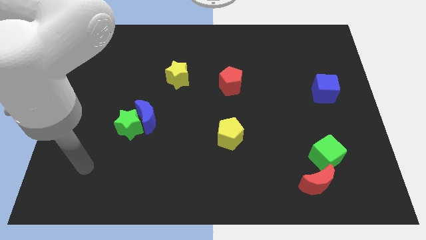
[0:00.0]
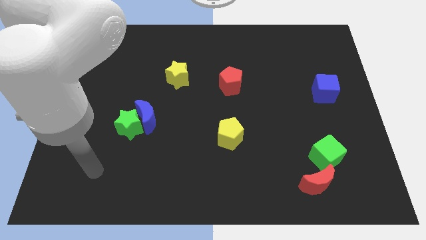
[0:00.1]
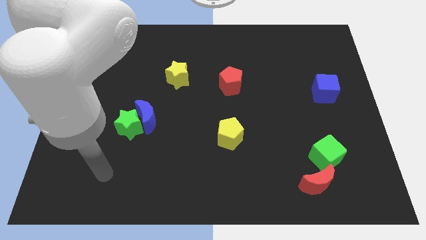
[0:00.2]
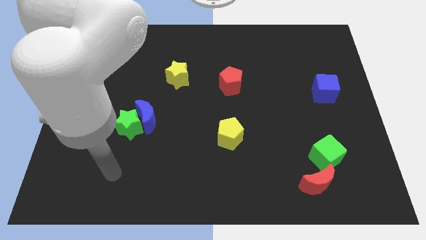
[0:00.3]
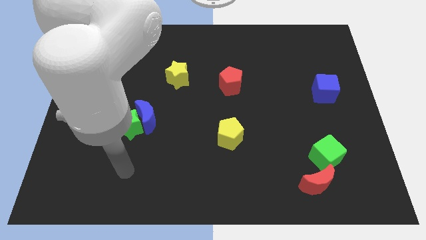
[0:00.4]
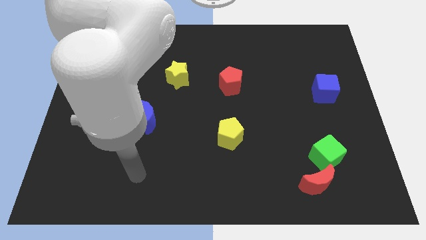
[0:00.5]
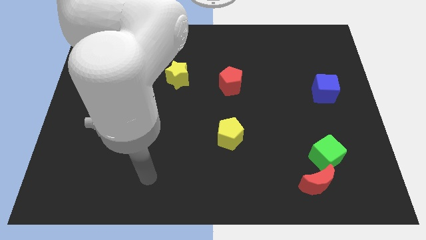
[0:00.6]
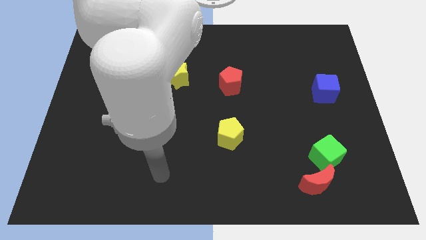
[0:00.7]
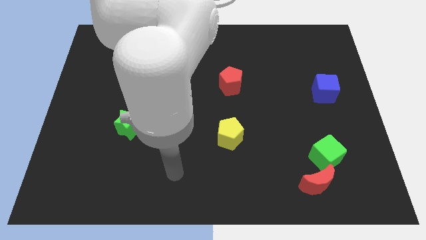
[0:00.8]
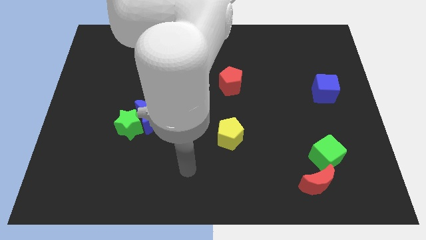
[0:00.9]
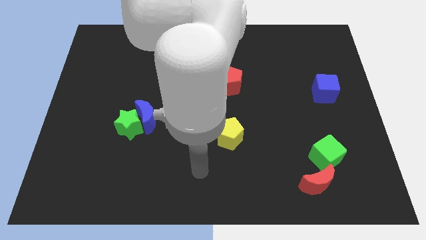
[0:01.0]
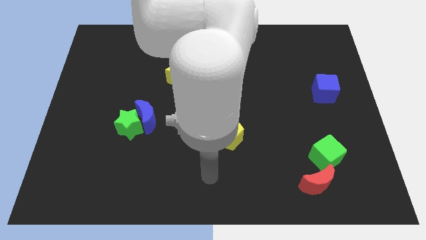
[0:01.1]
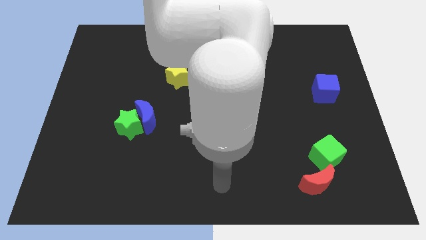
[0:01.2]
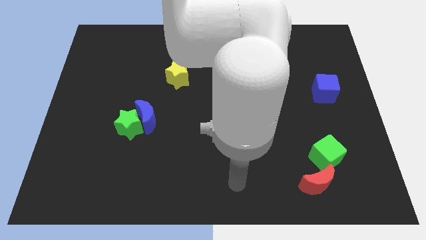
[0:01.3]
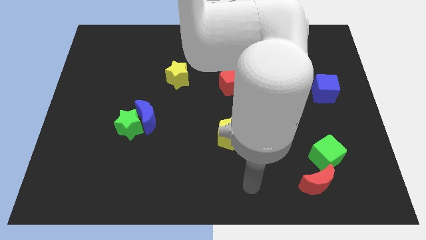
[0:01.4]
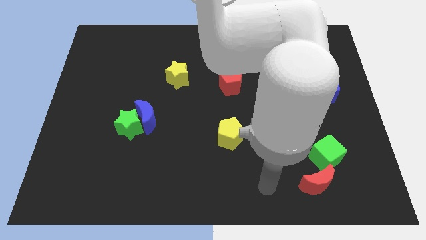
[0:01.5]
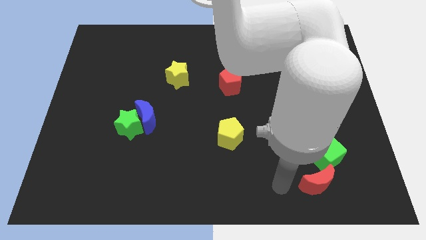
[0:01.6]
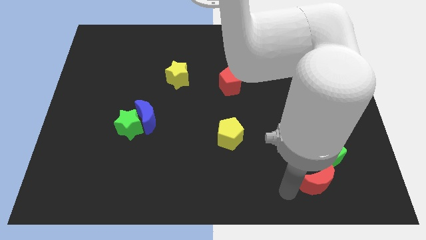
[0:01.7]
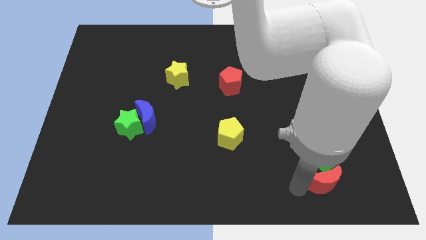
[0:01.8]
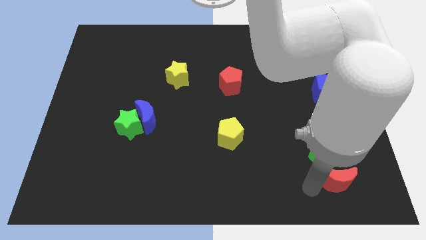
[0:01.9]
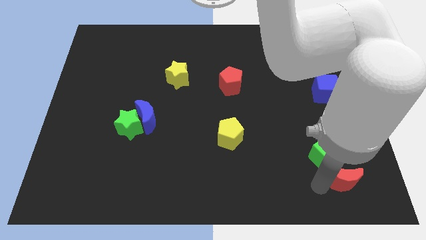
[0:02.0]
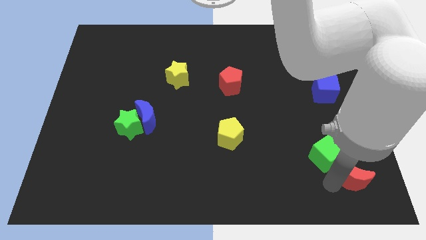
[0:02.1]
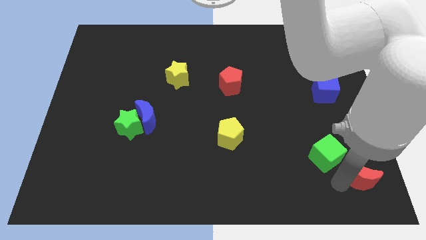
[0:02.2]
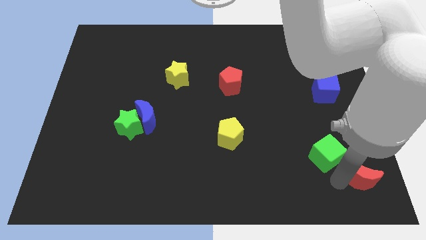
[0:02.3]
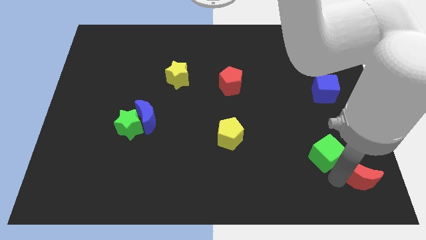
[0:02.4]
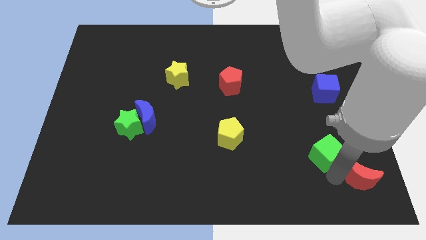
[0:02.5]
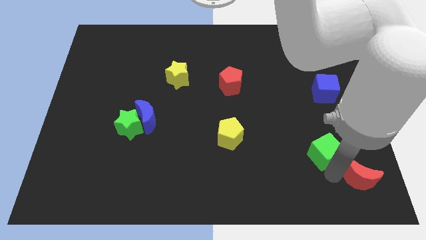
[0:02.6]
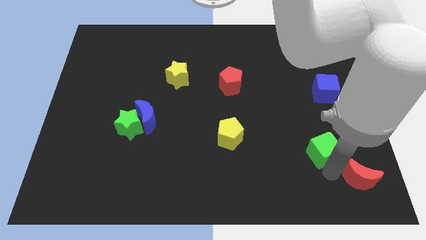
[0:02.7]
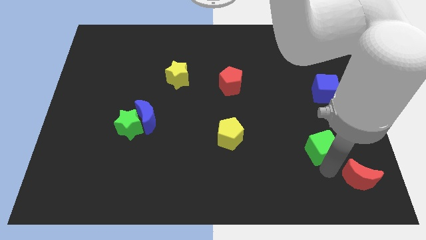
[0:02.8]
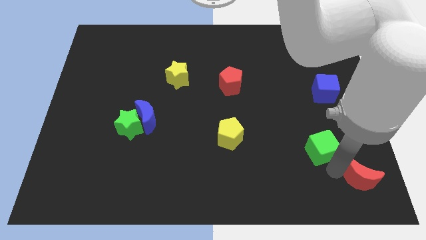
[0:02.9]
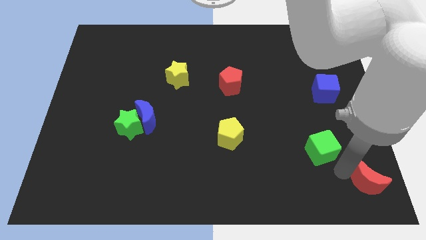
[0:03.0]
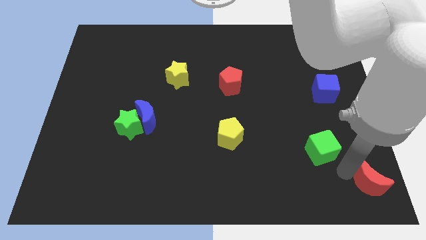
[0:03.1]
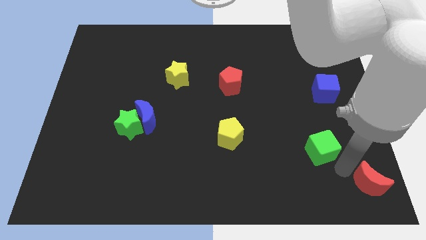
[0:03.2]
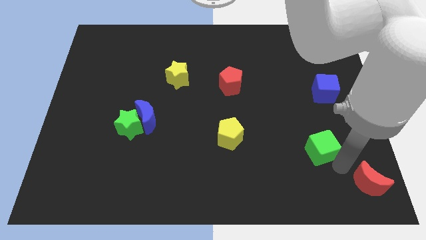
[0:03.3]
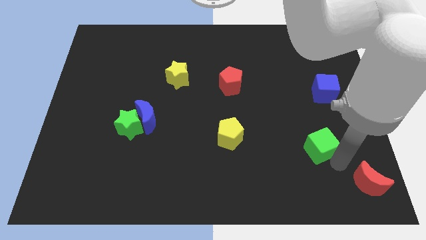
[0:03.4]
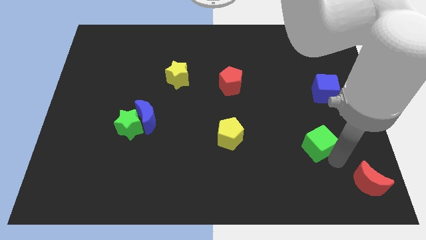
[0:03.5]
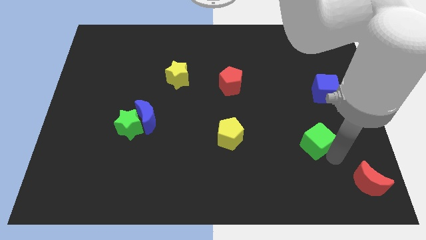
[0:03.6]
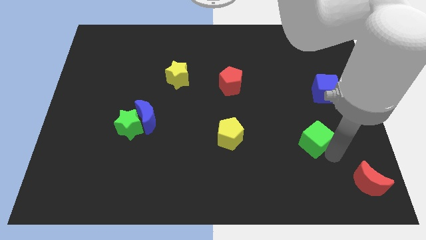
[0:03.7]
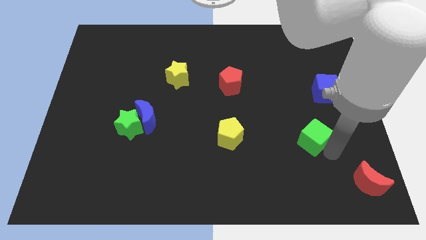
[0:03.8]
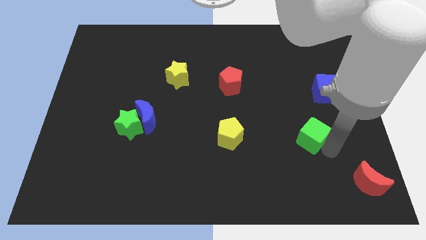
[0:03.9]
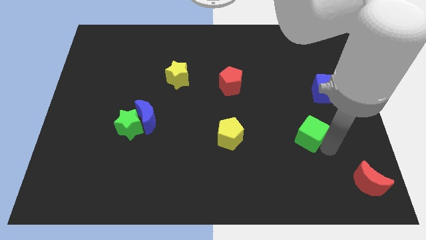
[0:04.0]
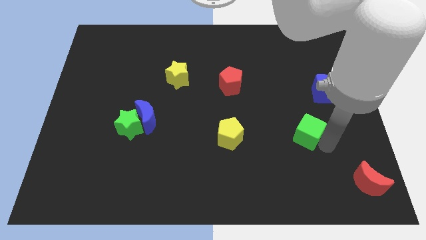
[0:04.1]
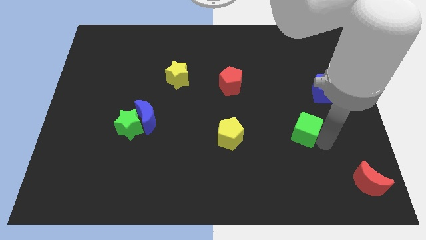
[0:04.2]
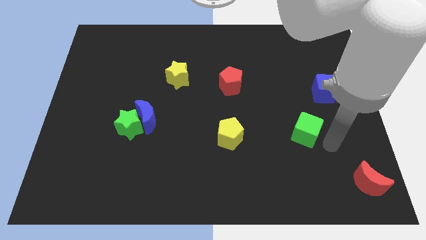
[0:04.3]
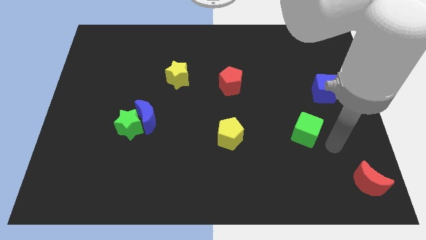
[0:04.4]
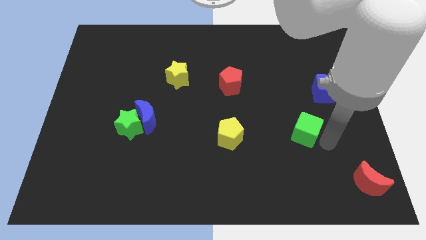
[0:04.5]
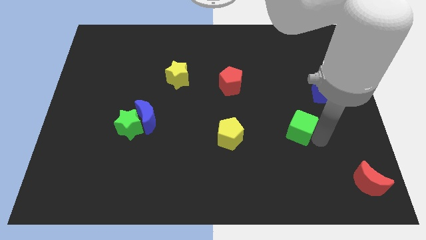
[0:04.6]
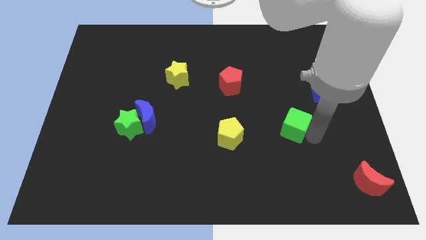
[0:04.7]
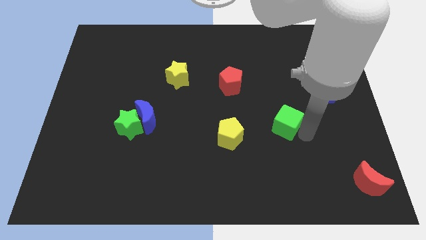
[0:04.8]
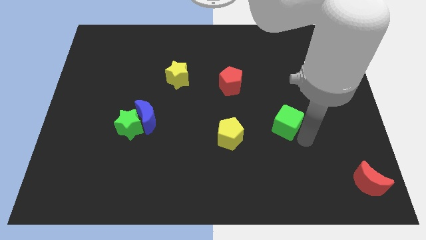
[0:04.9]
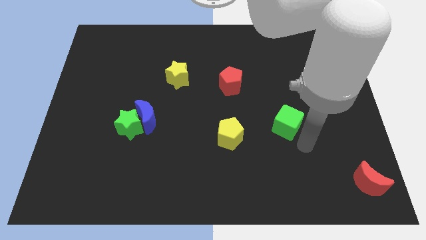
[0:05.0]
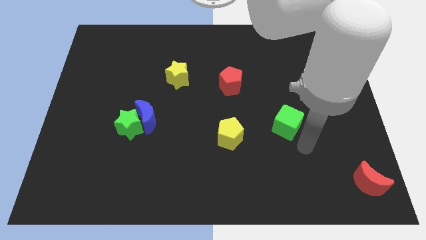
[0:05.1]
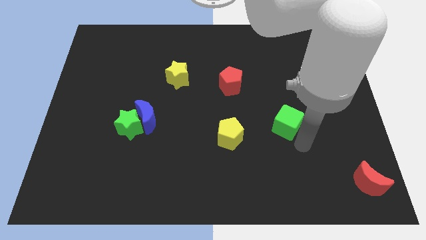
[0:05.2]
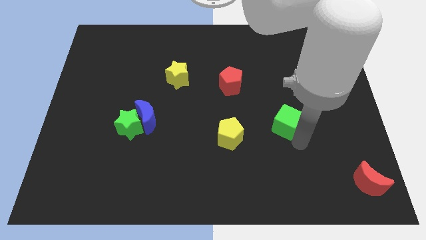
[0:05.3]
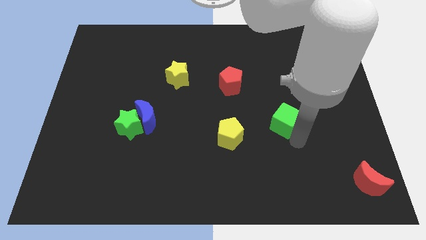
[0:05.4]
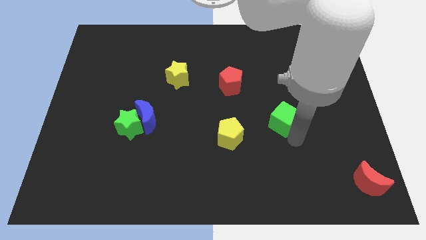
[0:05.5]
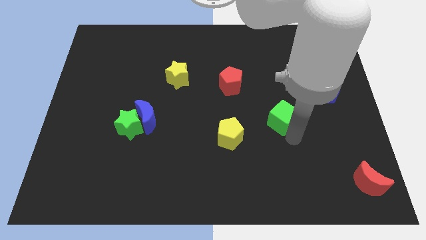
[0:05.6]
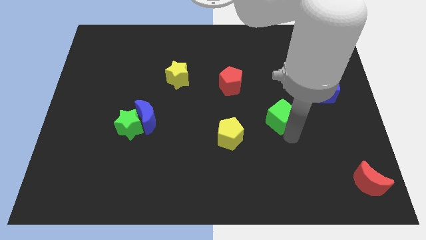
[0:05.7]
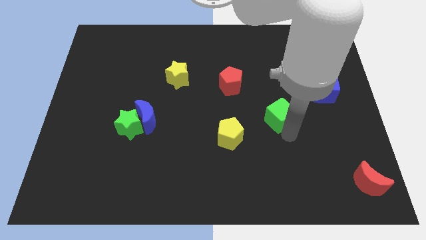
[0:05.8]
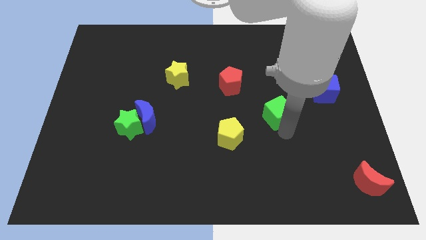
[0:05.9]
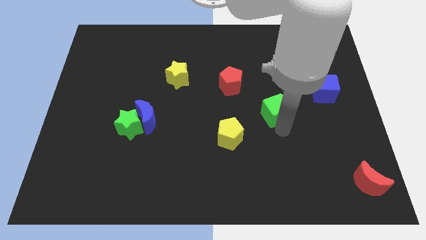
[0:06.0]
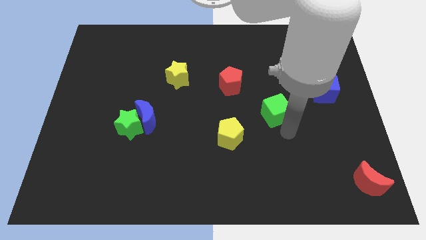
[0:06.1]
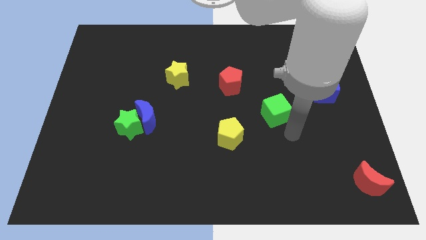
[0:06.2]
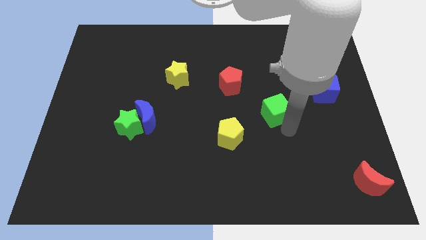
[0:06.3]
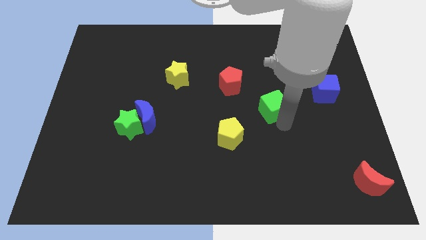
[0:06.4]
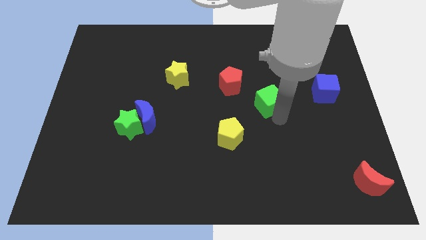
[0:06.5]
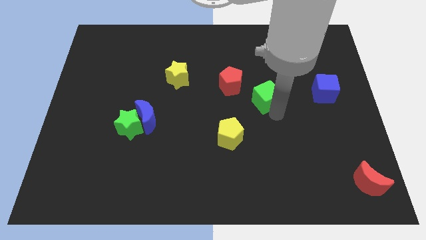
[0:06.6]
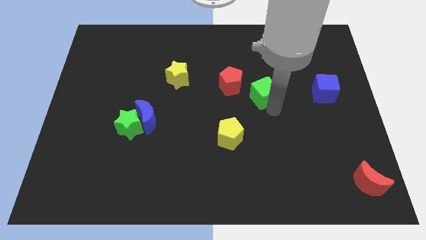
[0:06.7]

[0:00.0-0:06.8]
slide the green cube diagonally up and to the left

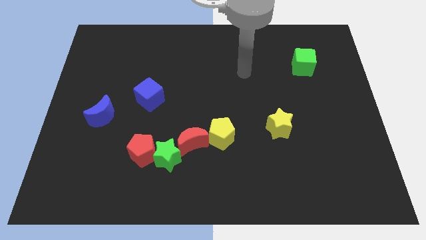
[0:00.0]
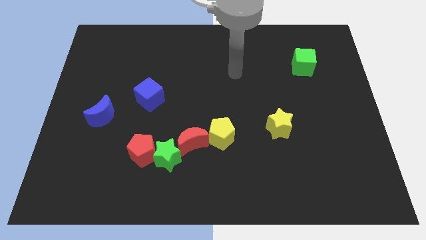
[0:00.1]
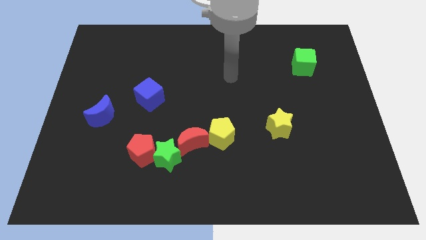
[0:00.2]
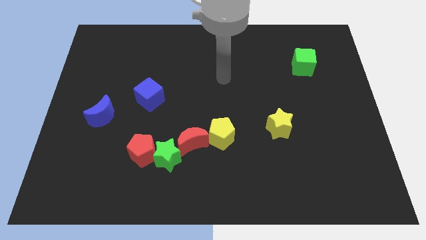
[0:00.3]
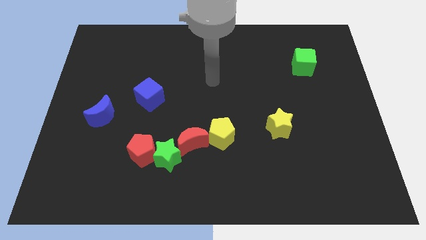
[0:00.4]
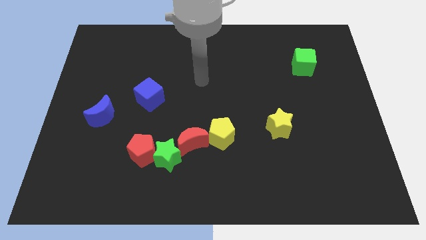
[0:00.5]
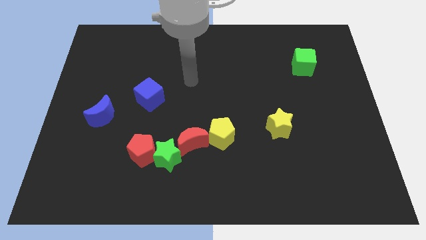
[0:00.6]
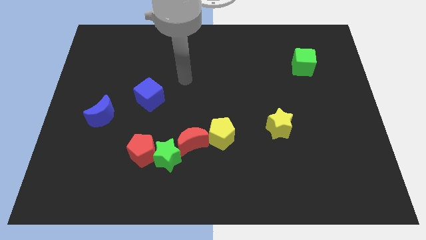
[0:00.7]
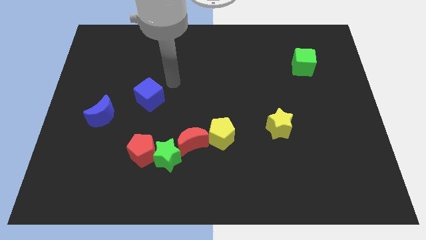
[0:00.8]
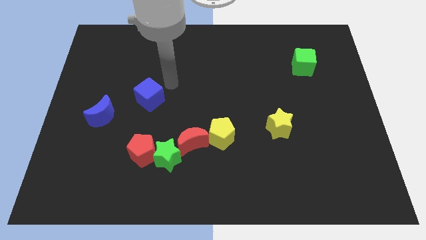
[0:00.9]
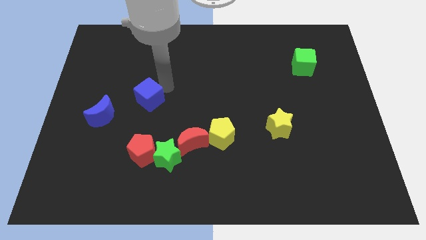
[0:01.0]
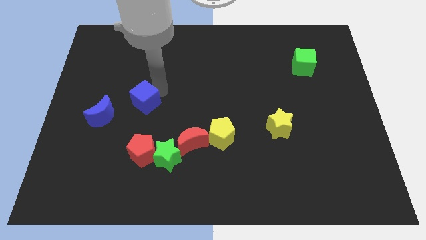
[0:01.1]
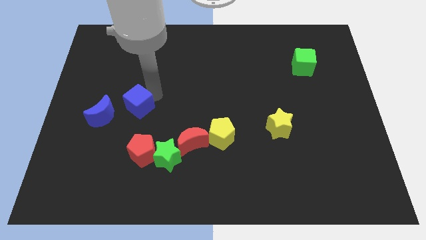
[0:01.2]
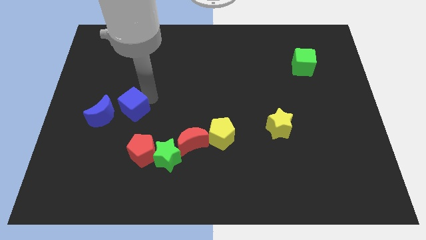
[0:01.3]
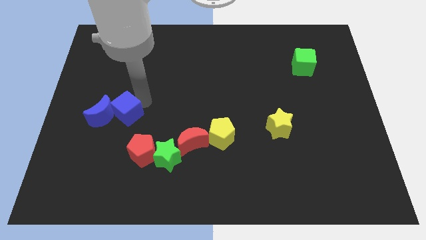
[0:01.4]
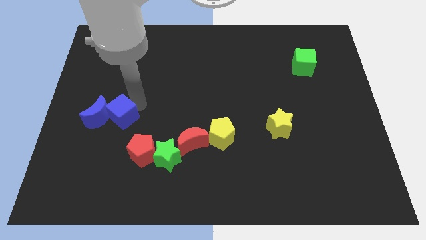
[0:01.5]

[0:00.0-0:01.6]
slide the blue cube a bit downwards and to the left diagonally
